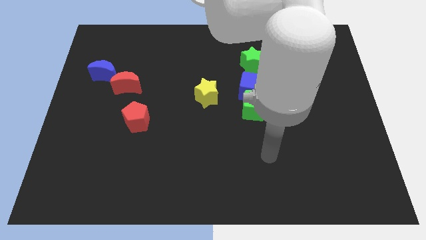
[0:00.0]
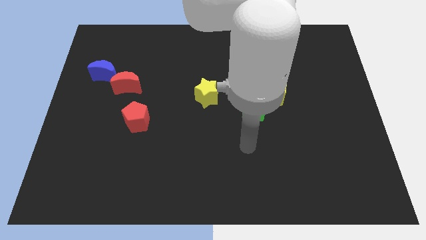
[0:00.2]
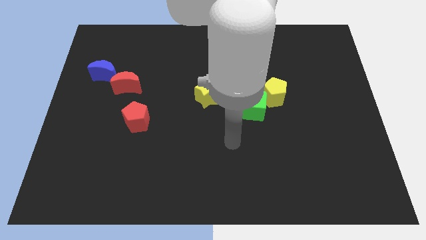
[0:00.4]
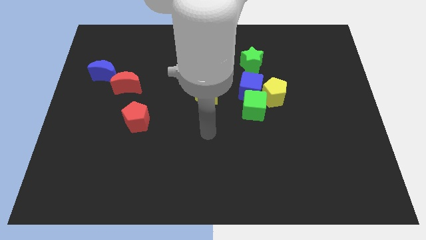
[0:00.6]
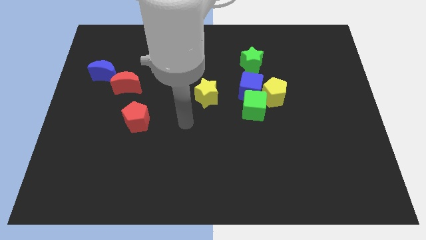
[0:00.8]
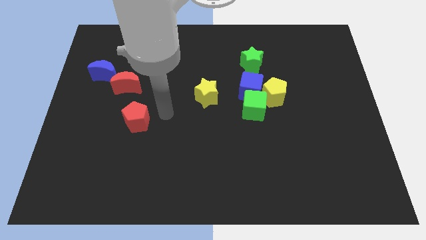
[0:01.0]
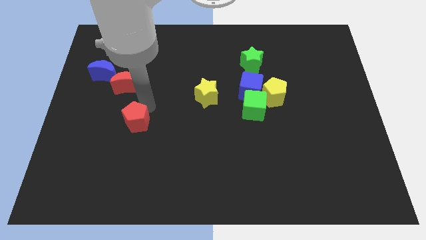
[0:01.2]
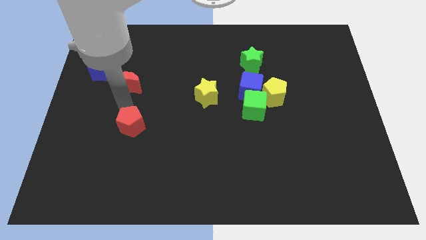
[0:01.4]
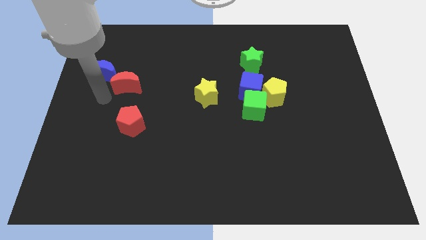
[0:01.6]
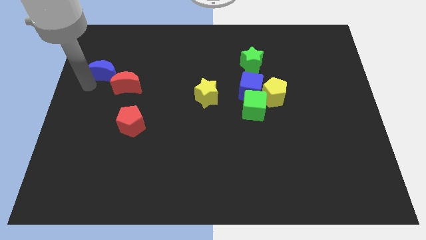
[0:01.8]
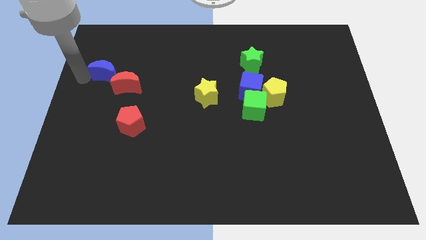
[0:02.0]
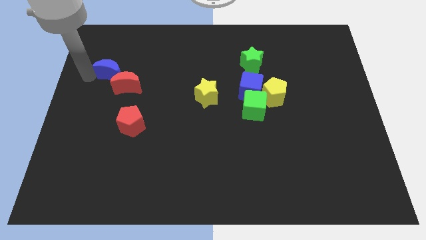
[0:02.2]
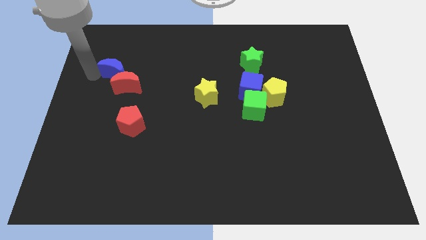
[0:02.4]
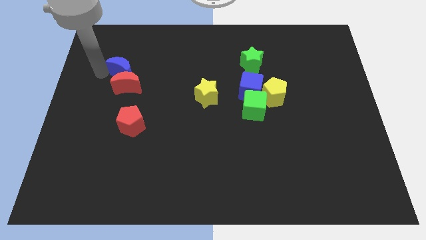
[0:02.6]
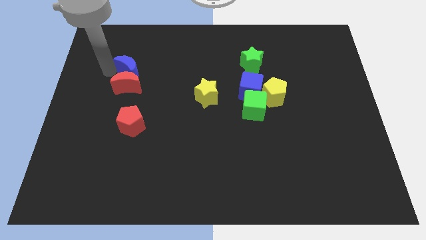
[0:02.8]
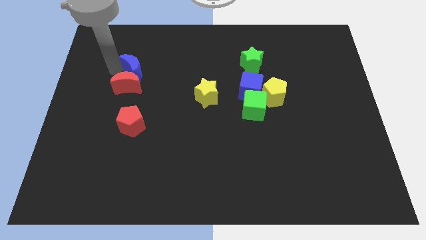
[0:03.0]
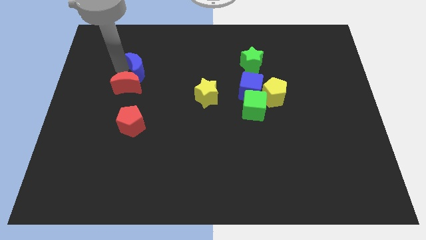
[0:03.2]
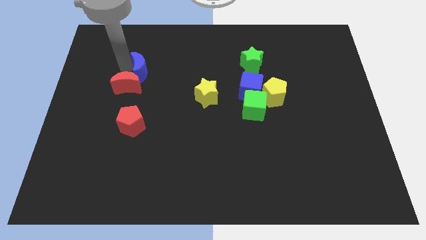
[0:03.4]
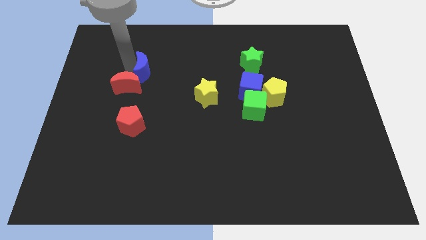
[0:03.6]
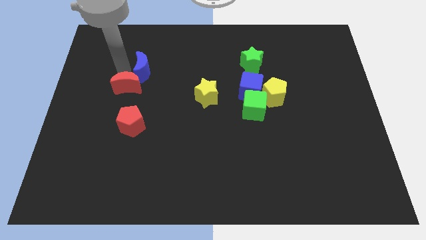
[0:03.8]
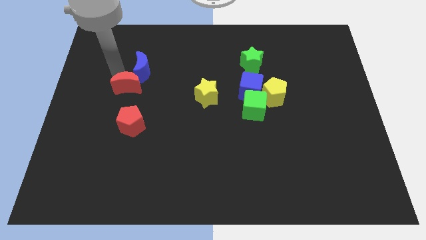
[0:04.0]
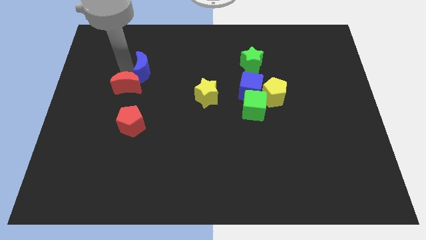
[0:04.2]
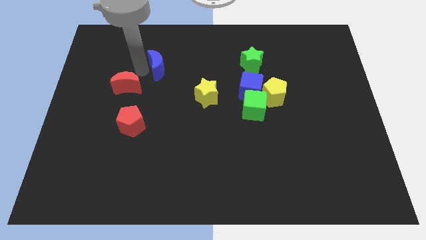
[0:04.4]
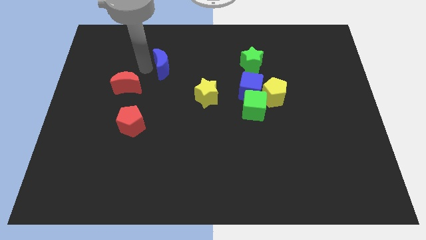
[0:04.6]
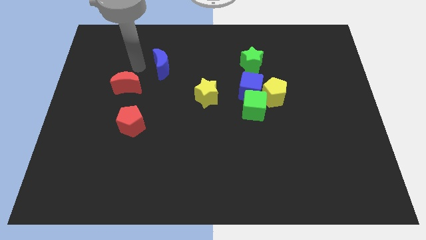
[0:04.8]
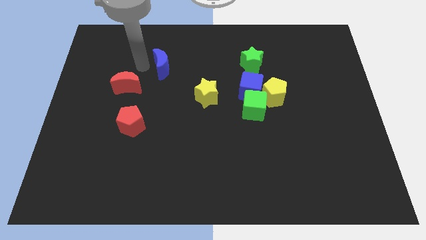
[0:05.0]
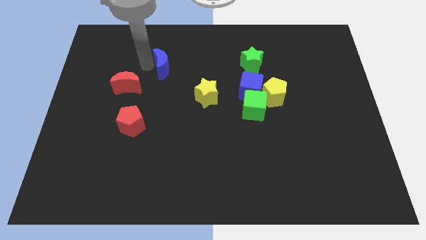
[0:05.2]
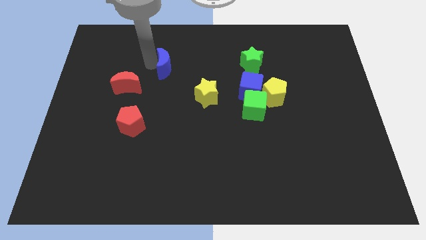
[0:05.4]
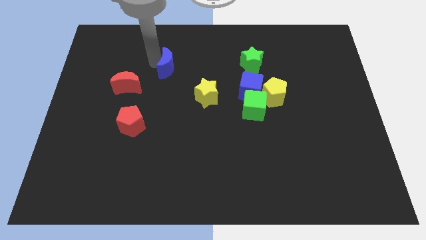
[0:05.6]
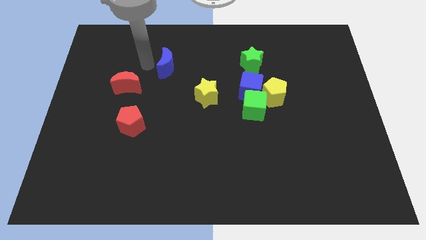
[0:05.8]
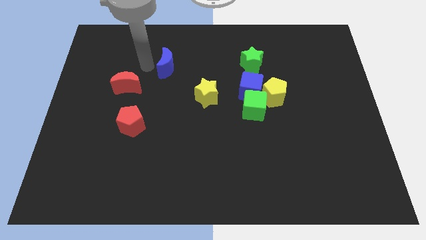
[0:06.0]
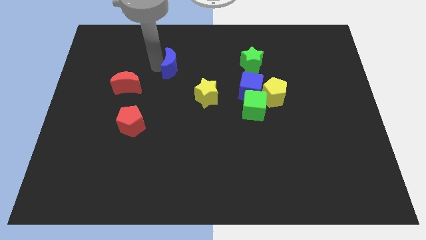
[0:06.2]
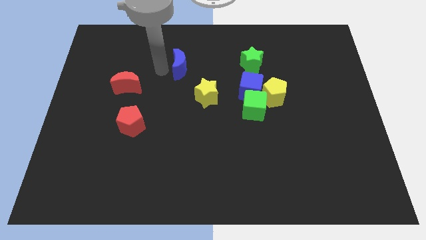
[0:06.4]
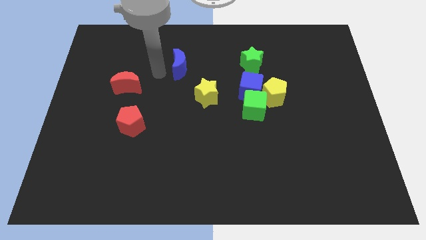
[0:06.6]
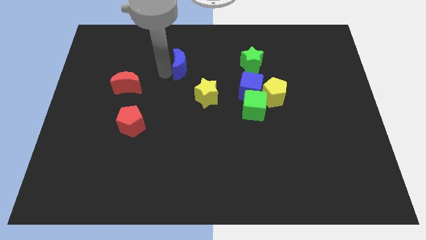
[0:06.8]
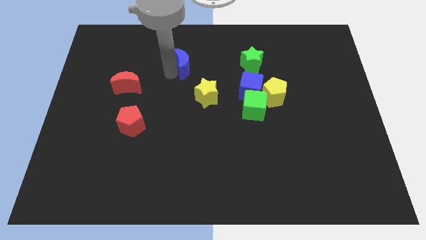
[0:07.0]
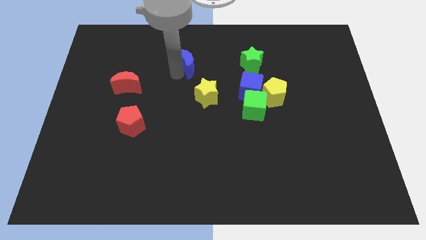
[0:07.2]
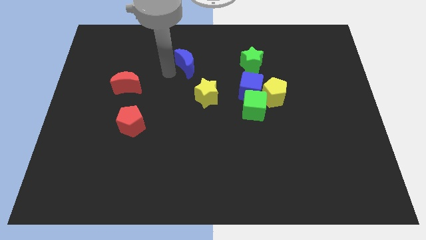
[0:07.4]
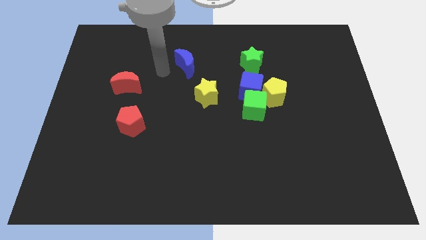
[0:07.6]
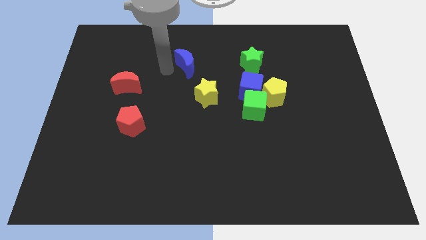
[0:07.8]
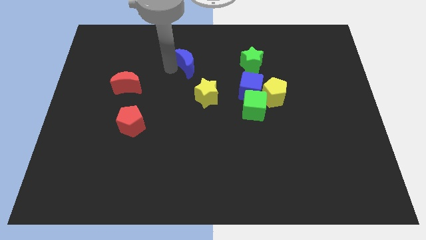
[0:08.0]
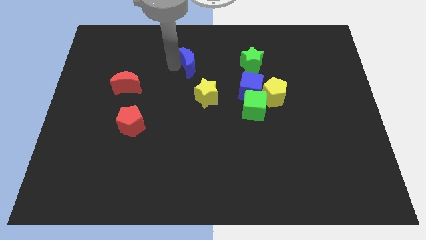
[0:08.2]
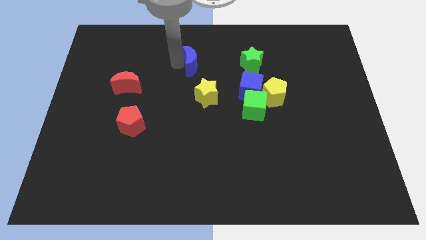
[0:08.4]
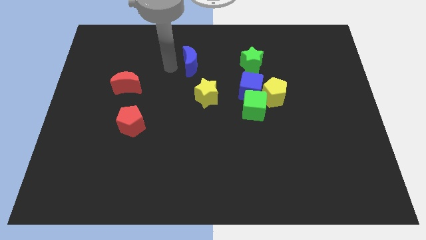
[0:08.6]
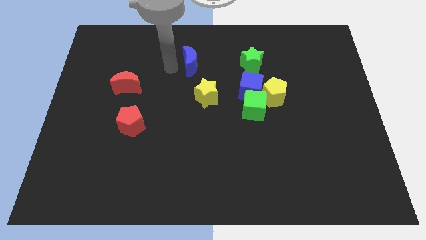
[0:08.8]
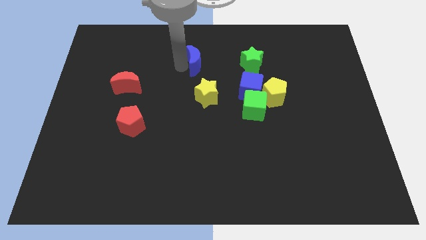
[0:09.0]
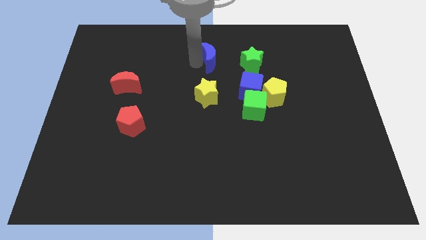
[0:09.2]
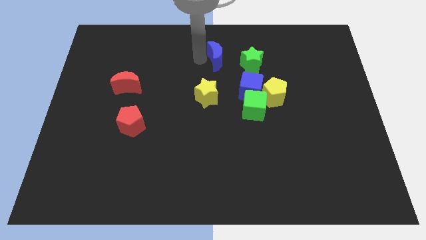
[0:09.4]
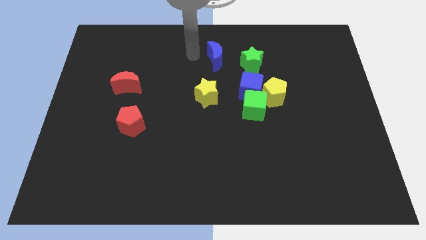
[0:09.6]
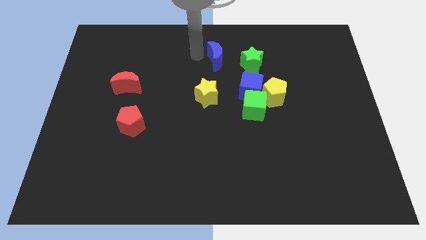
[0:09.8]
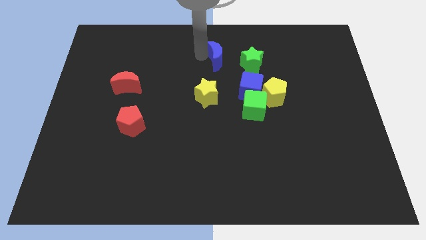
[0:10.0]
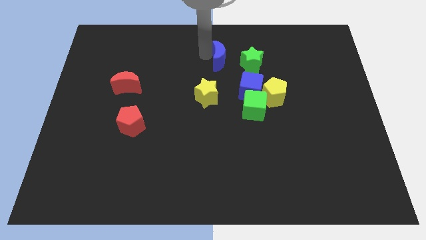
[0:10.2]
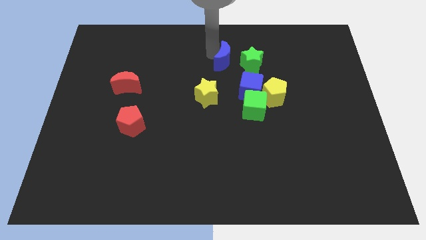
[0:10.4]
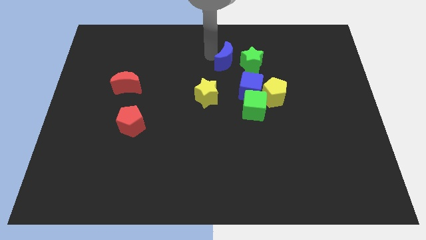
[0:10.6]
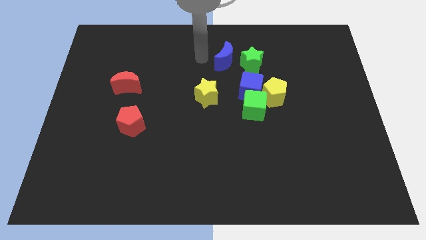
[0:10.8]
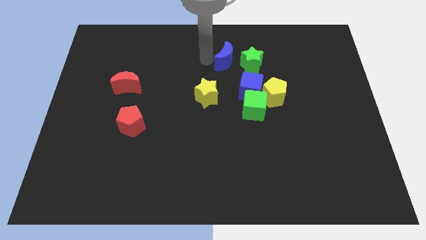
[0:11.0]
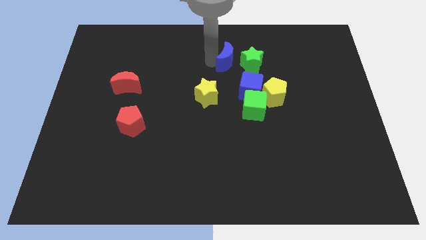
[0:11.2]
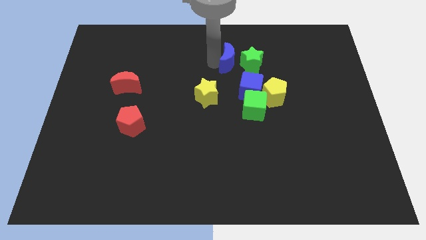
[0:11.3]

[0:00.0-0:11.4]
slide the blue moon close to the green star

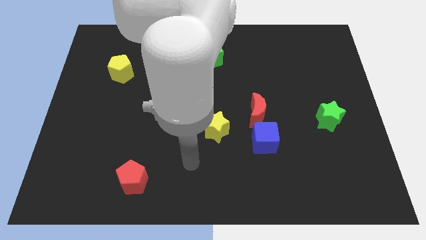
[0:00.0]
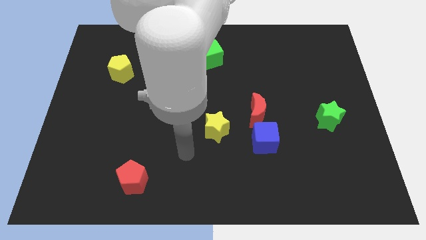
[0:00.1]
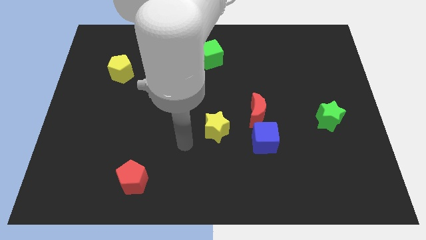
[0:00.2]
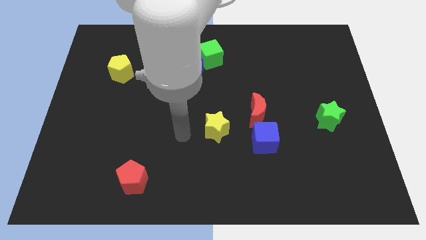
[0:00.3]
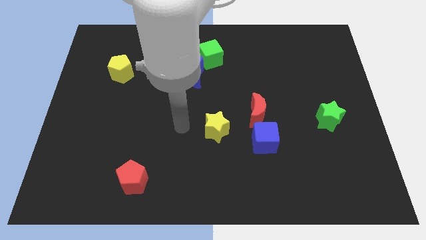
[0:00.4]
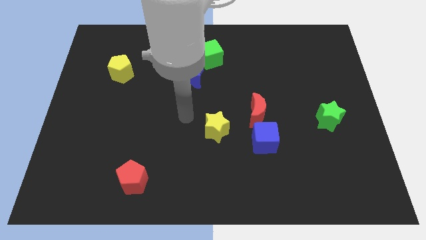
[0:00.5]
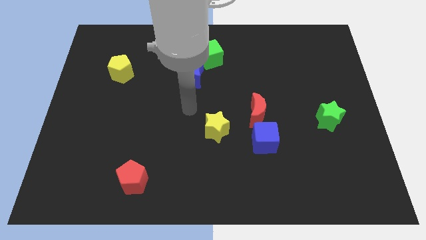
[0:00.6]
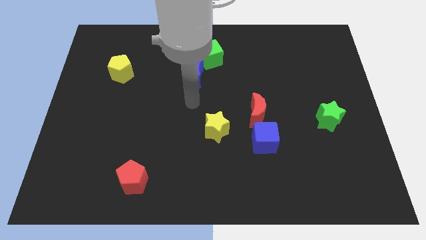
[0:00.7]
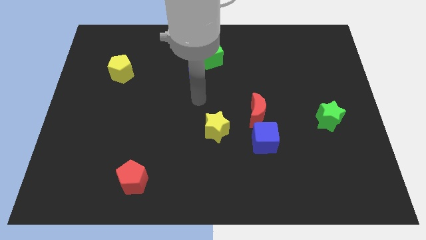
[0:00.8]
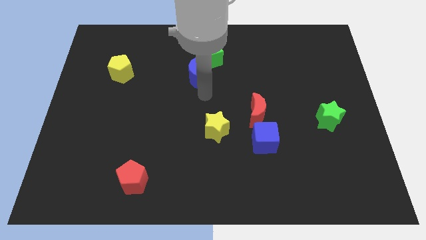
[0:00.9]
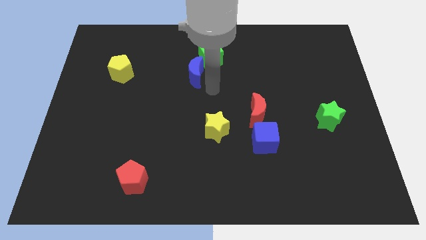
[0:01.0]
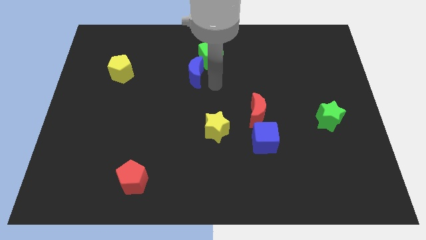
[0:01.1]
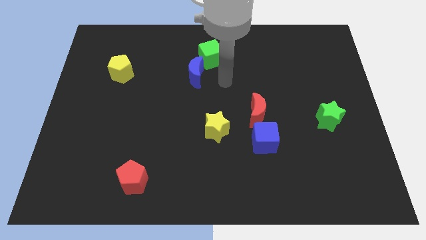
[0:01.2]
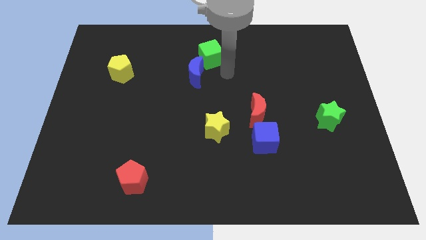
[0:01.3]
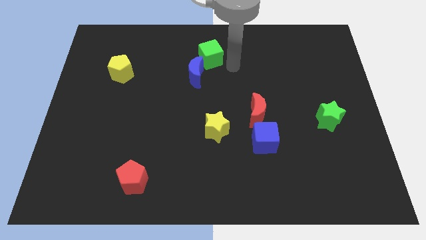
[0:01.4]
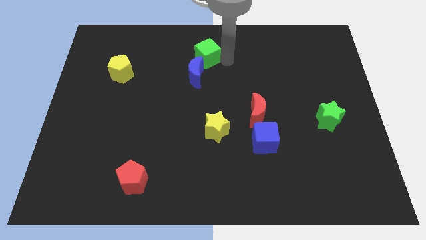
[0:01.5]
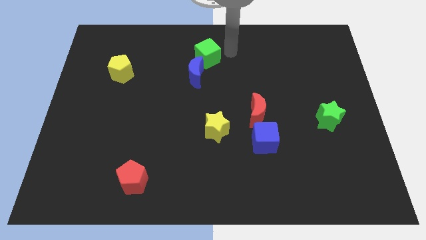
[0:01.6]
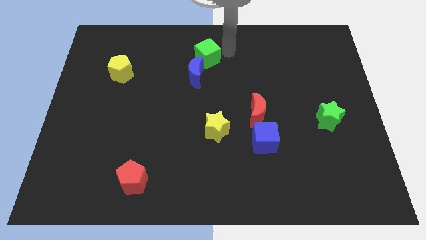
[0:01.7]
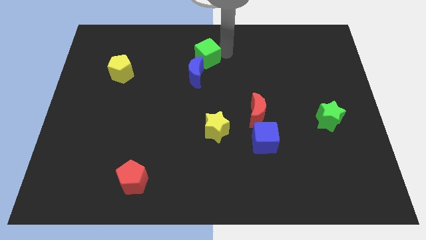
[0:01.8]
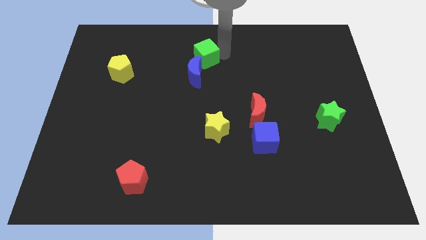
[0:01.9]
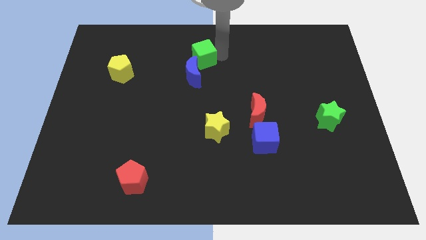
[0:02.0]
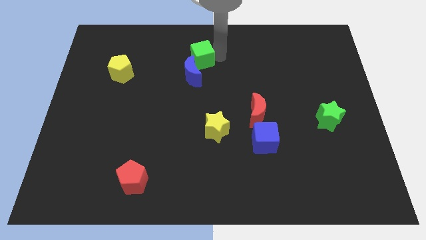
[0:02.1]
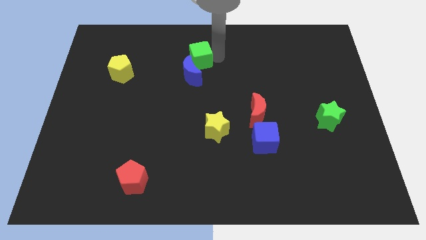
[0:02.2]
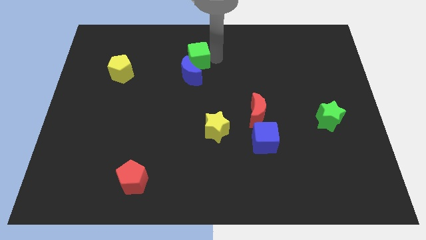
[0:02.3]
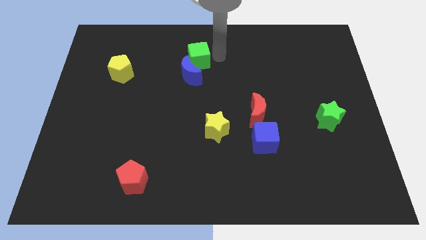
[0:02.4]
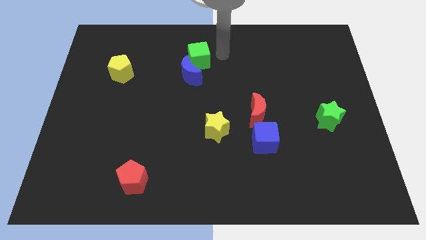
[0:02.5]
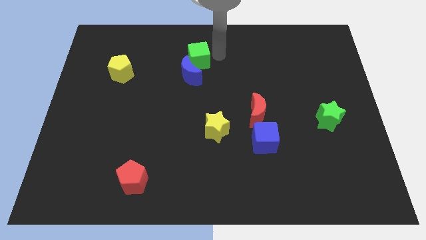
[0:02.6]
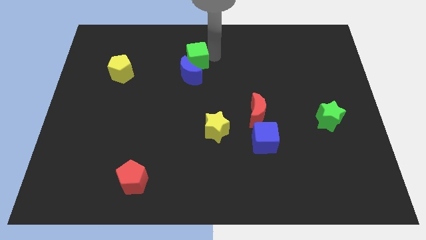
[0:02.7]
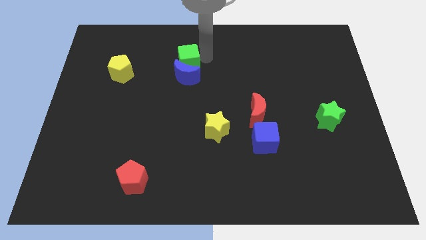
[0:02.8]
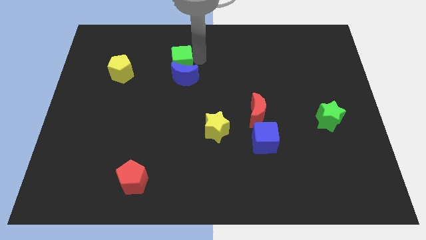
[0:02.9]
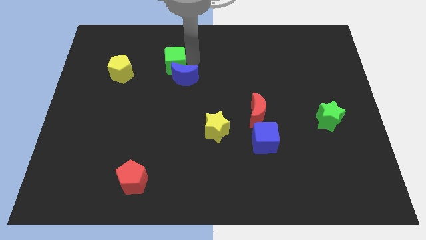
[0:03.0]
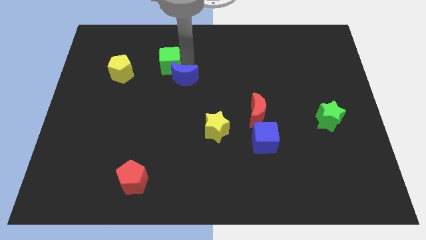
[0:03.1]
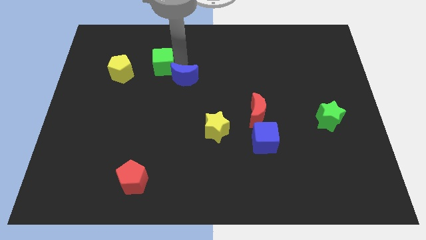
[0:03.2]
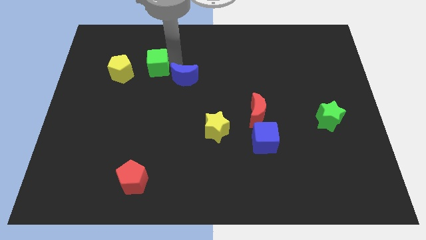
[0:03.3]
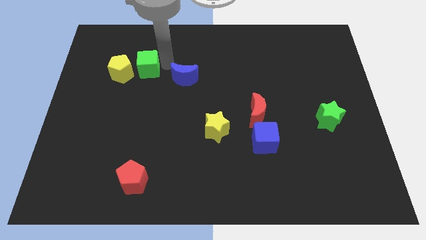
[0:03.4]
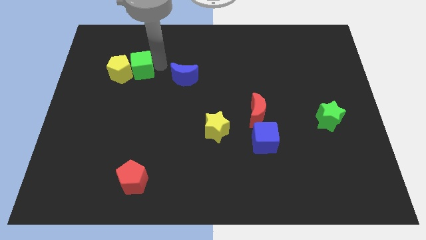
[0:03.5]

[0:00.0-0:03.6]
move the green cube next to the yellow pentagon
